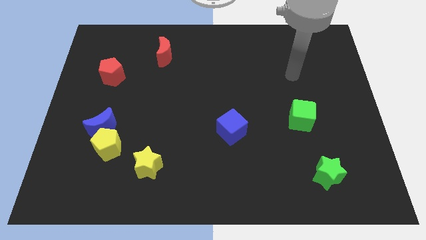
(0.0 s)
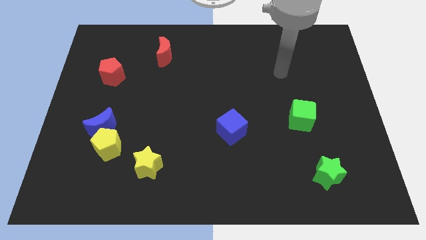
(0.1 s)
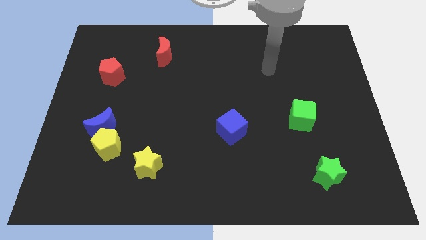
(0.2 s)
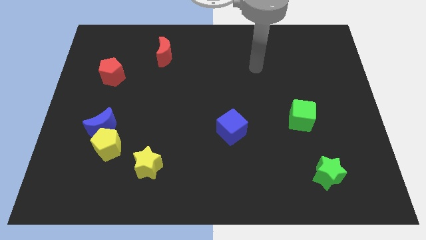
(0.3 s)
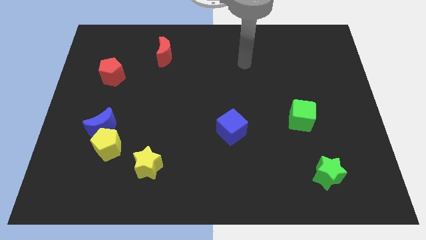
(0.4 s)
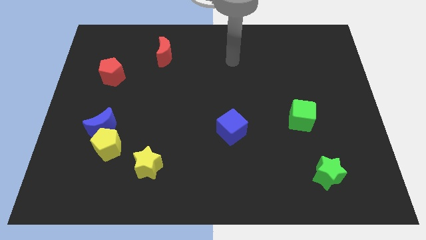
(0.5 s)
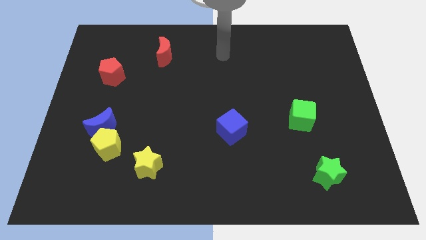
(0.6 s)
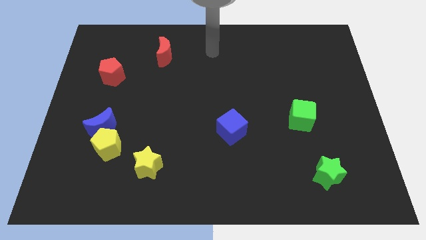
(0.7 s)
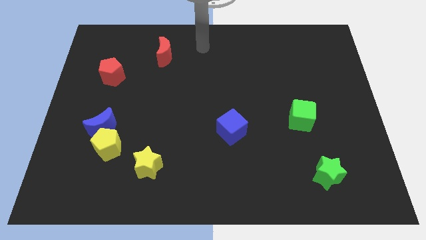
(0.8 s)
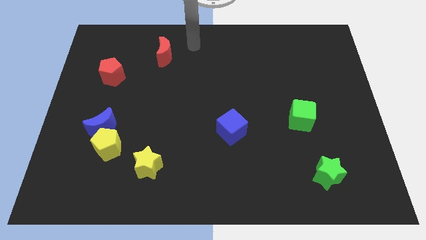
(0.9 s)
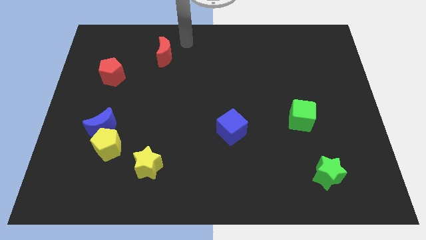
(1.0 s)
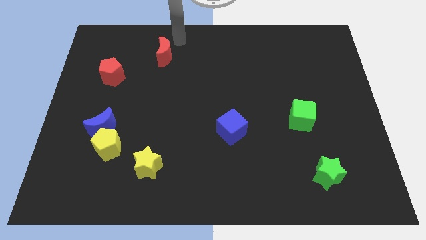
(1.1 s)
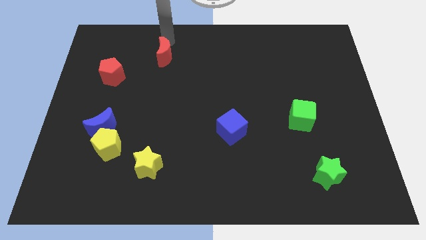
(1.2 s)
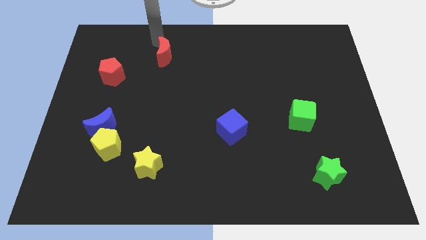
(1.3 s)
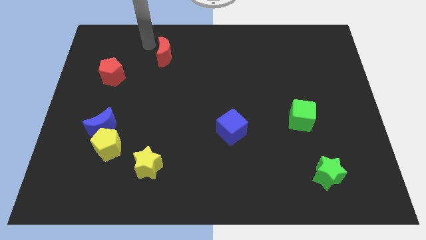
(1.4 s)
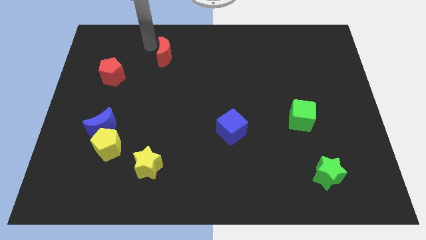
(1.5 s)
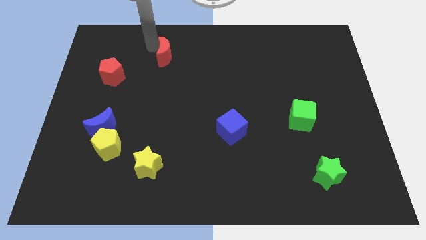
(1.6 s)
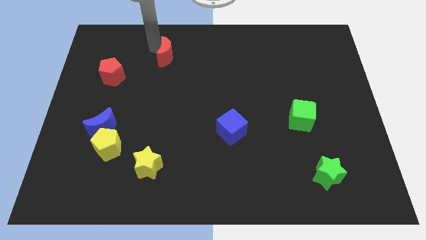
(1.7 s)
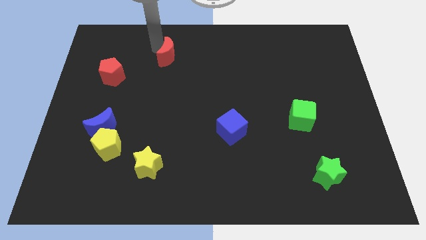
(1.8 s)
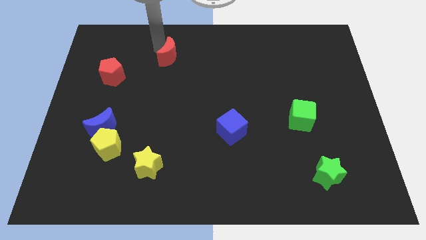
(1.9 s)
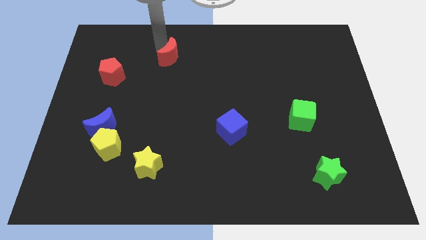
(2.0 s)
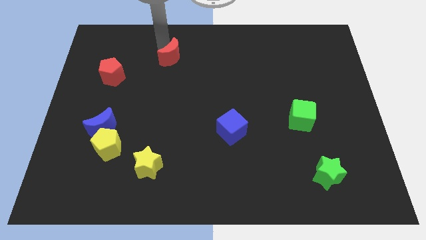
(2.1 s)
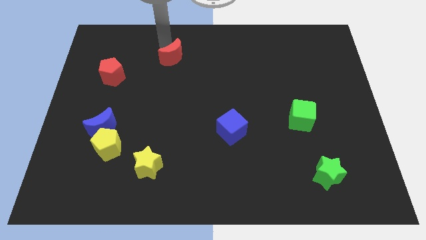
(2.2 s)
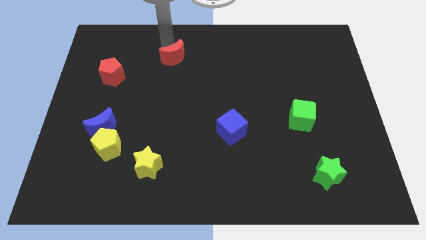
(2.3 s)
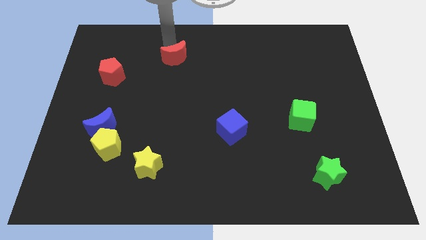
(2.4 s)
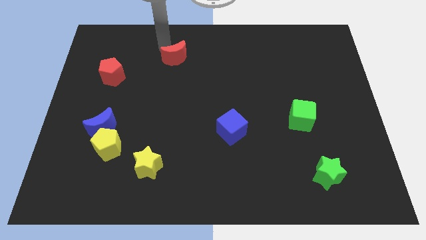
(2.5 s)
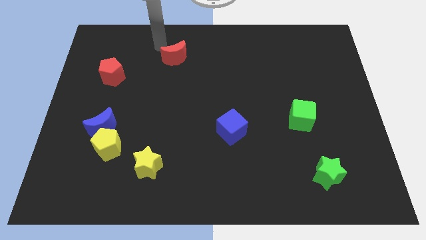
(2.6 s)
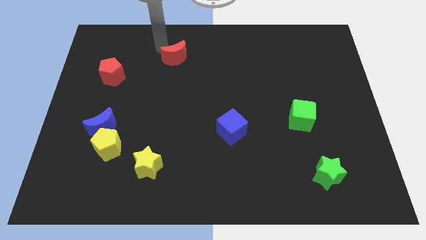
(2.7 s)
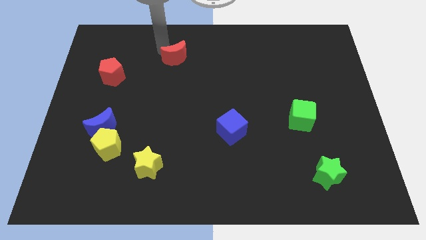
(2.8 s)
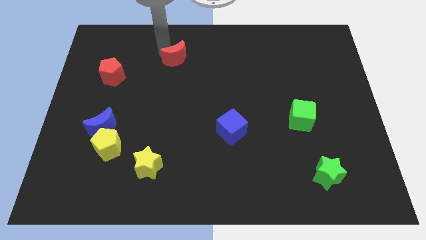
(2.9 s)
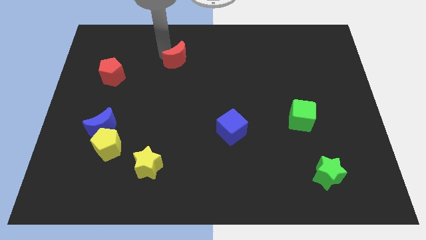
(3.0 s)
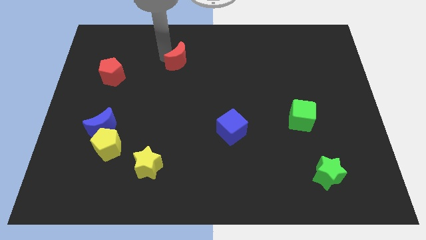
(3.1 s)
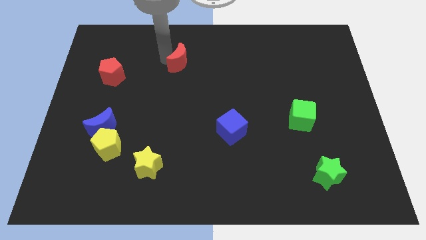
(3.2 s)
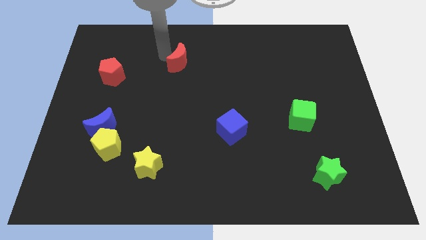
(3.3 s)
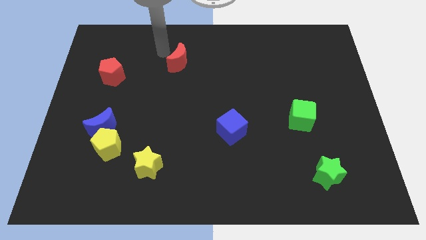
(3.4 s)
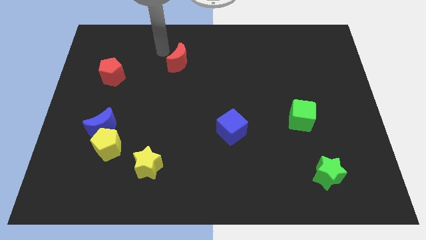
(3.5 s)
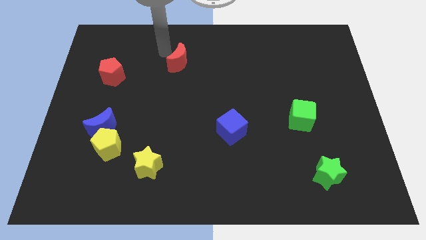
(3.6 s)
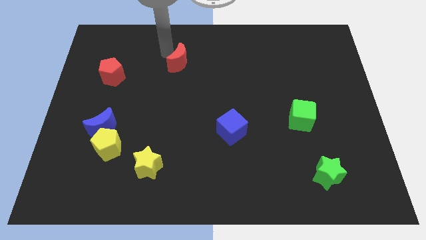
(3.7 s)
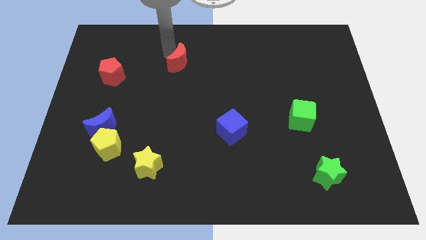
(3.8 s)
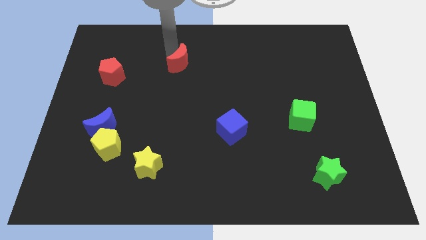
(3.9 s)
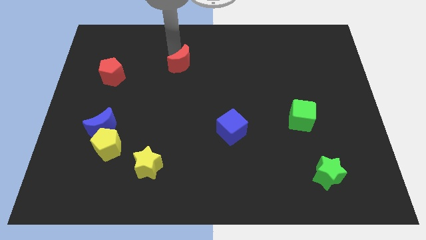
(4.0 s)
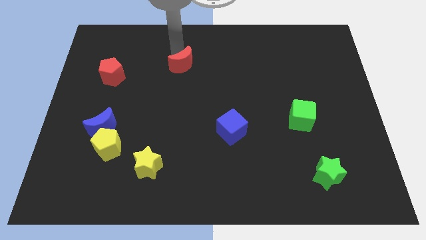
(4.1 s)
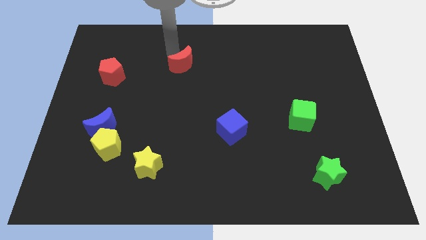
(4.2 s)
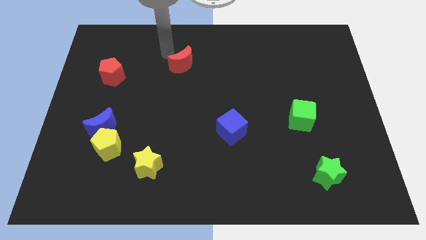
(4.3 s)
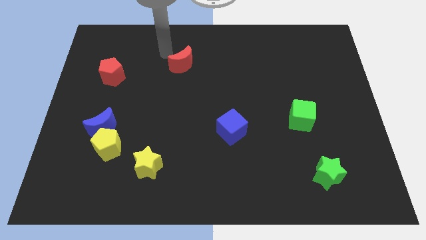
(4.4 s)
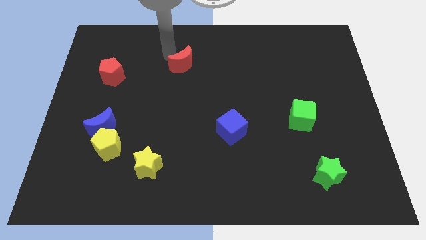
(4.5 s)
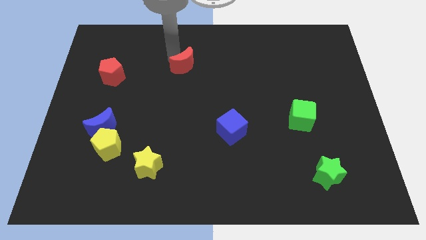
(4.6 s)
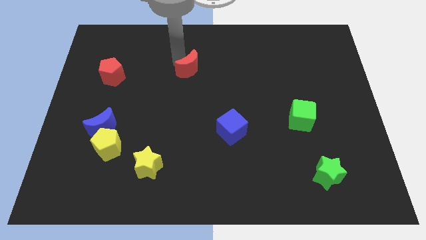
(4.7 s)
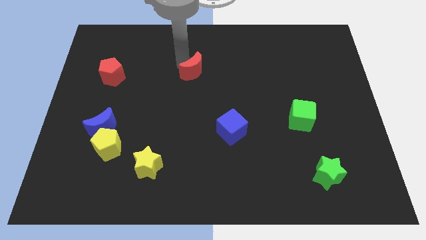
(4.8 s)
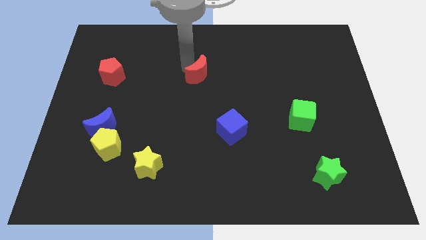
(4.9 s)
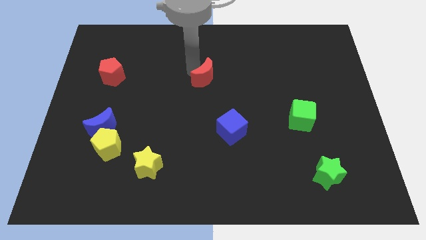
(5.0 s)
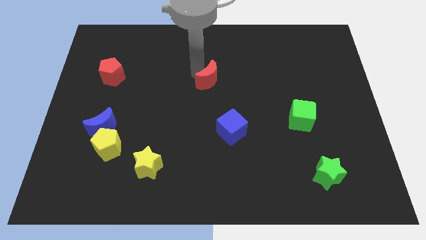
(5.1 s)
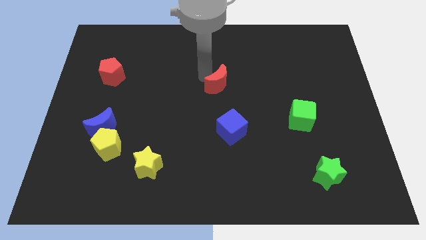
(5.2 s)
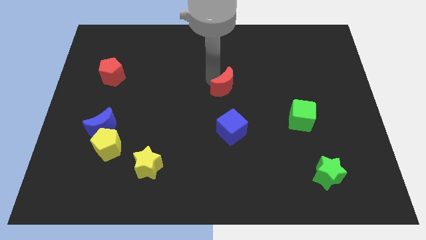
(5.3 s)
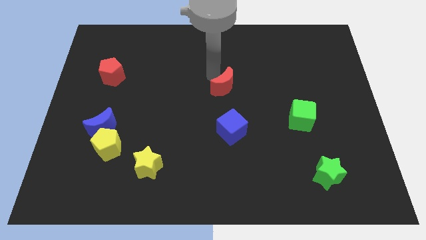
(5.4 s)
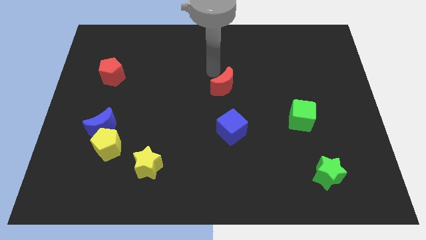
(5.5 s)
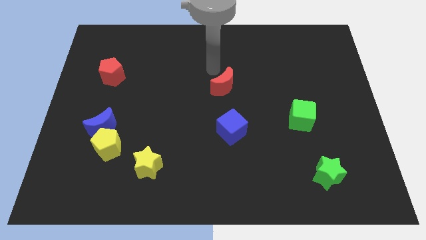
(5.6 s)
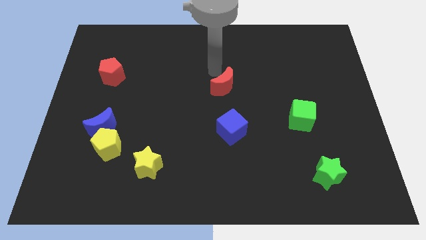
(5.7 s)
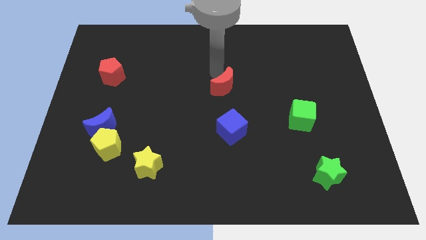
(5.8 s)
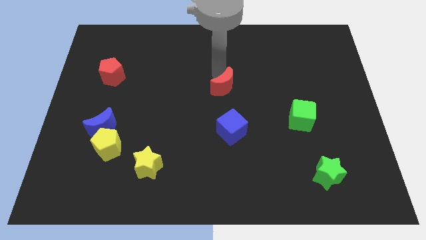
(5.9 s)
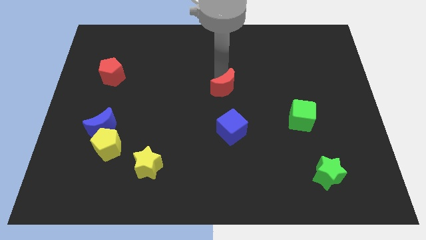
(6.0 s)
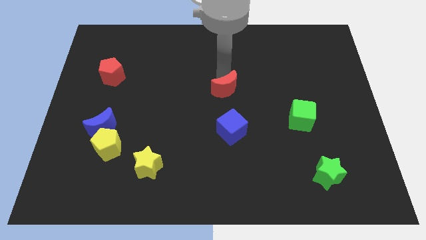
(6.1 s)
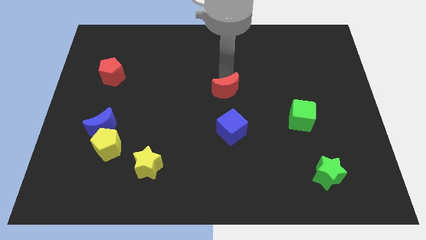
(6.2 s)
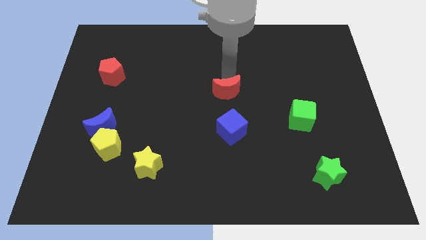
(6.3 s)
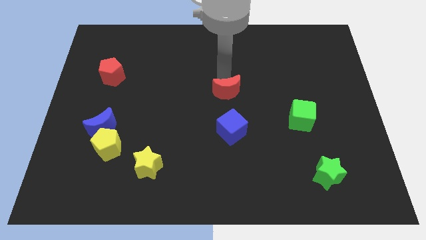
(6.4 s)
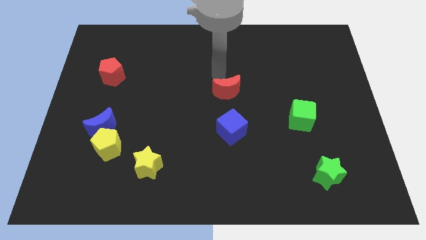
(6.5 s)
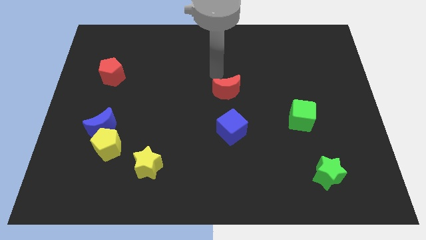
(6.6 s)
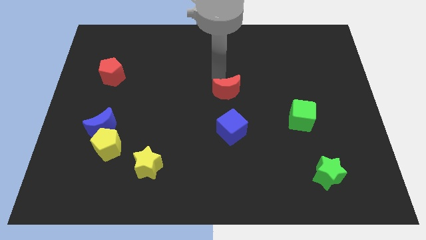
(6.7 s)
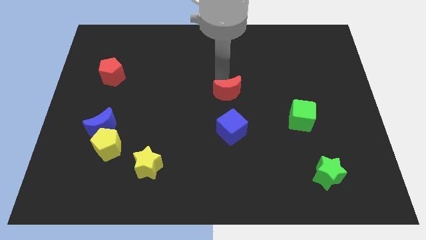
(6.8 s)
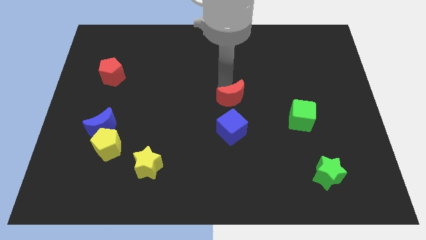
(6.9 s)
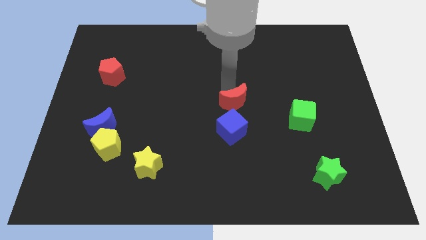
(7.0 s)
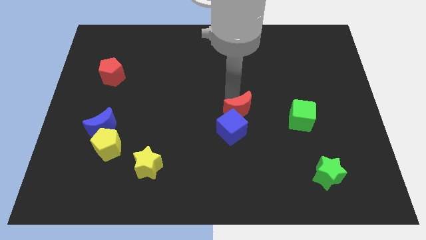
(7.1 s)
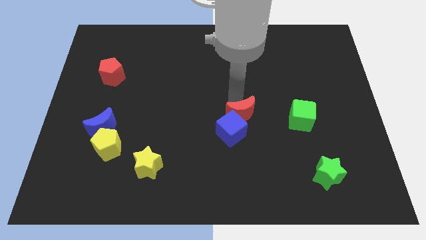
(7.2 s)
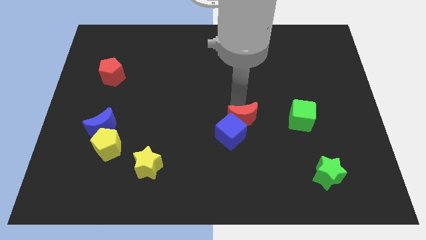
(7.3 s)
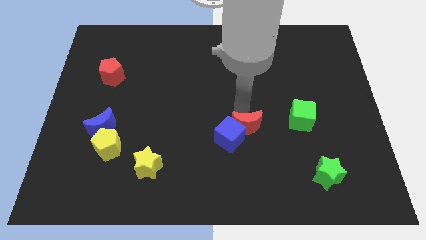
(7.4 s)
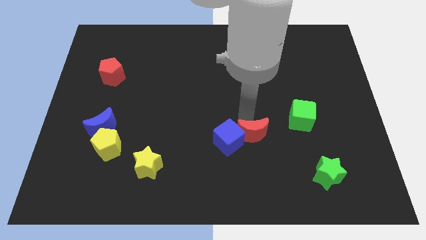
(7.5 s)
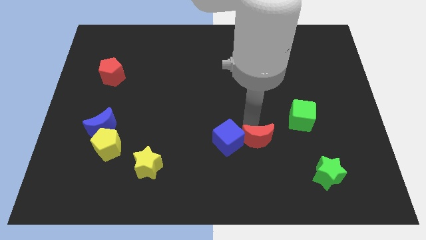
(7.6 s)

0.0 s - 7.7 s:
put the red moon to the bottom right side of the blue cube
